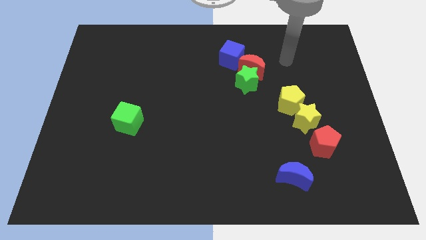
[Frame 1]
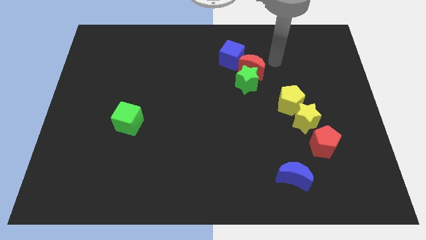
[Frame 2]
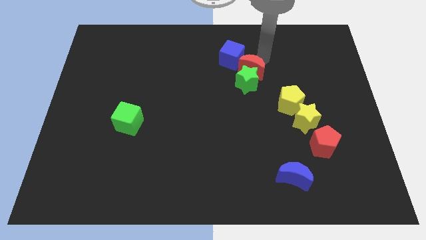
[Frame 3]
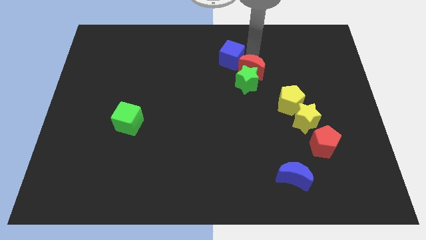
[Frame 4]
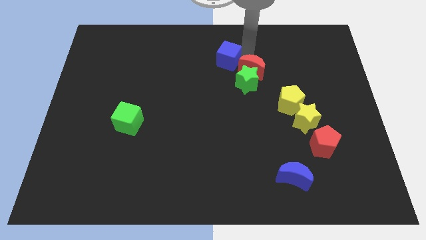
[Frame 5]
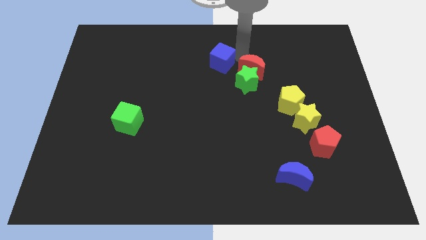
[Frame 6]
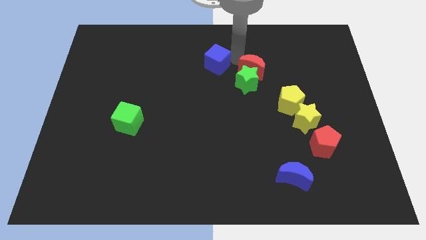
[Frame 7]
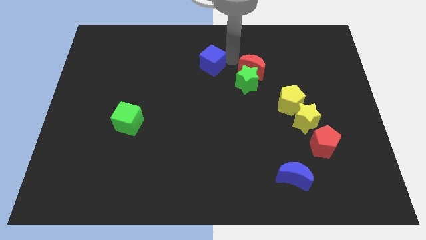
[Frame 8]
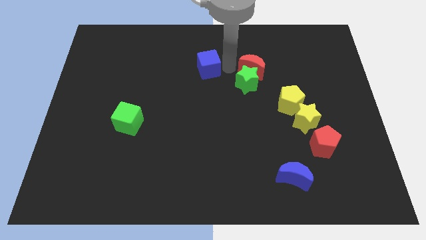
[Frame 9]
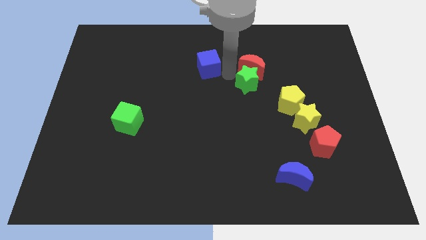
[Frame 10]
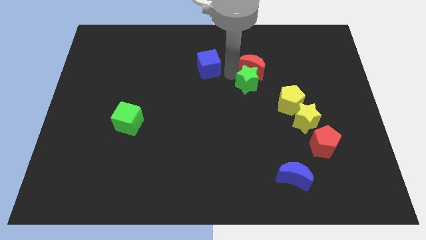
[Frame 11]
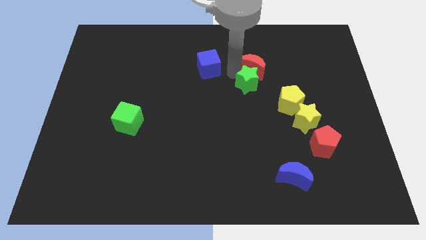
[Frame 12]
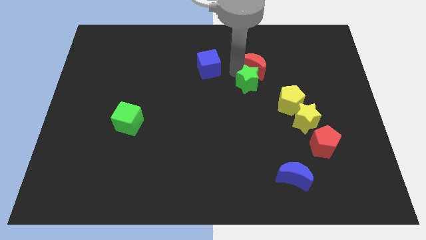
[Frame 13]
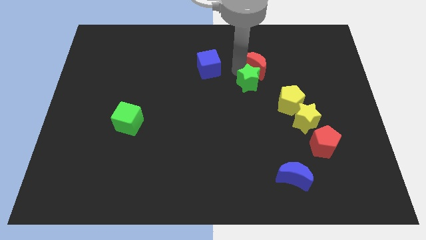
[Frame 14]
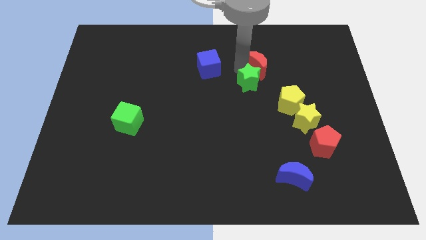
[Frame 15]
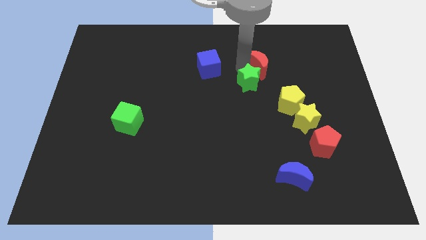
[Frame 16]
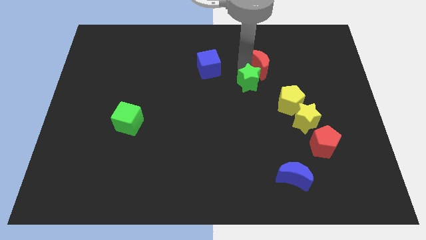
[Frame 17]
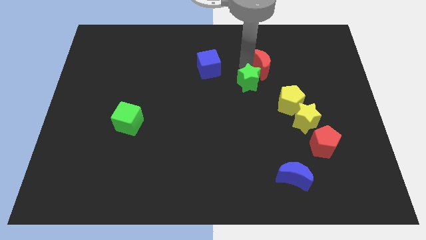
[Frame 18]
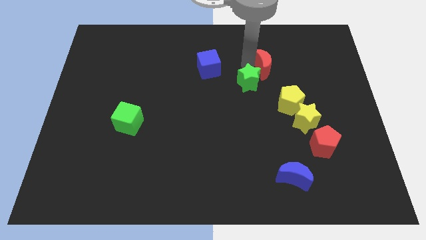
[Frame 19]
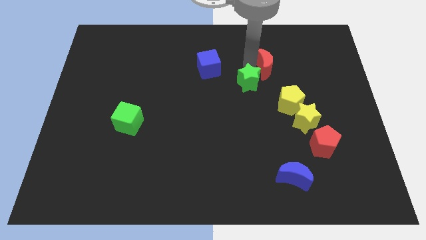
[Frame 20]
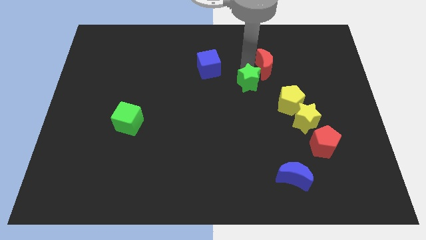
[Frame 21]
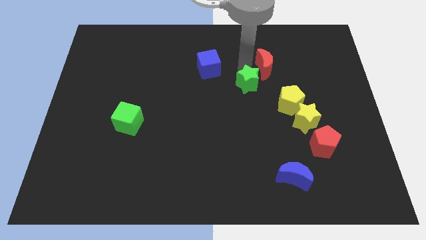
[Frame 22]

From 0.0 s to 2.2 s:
pull the red moon apart from the green star and blue cube

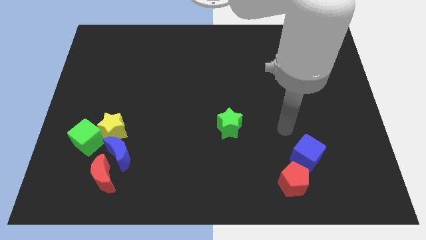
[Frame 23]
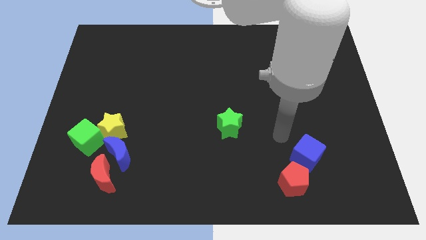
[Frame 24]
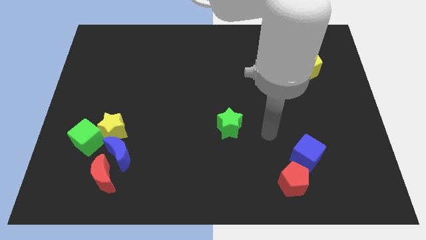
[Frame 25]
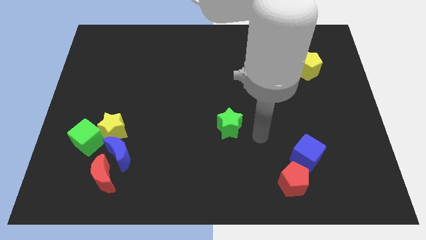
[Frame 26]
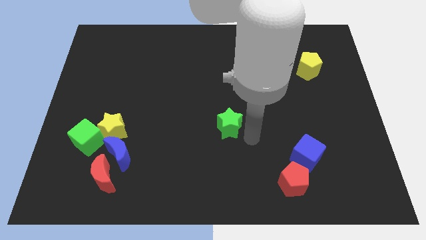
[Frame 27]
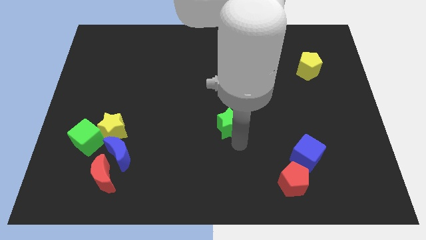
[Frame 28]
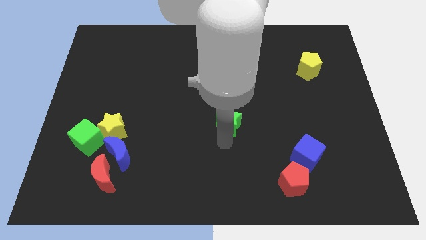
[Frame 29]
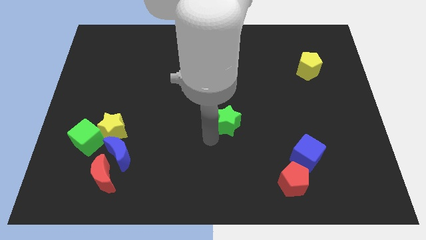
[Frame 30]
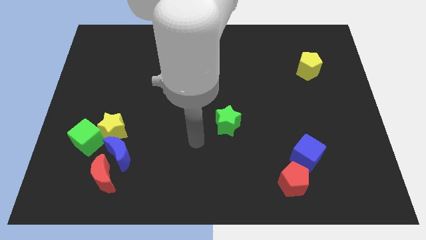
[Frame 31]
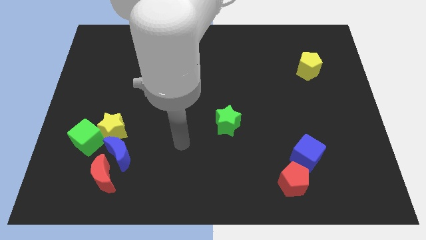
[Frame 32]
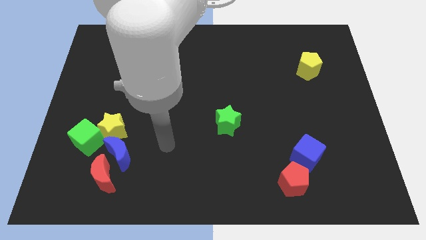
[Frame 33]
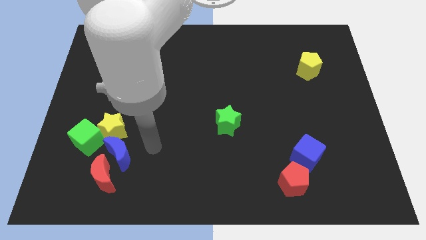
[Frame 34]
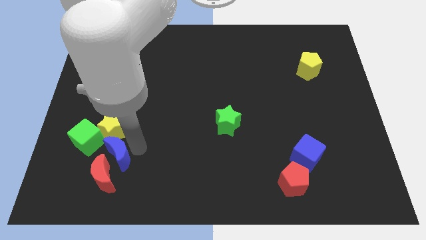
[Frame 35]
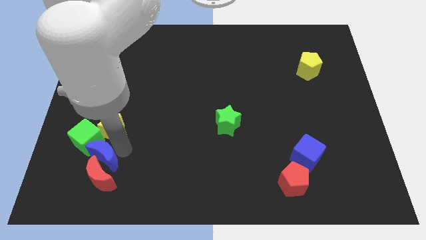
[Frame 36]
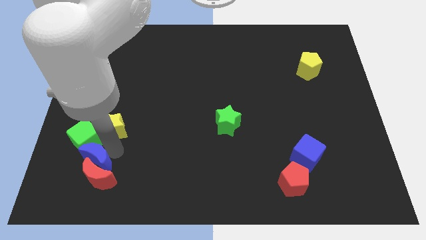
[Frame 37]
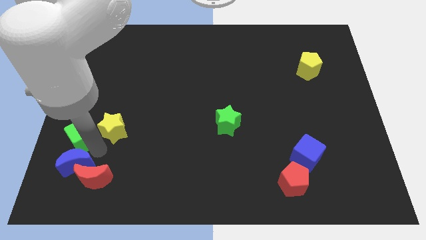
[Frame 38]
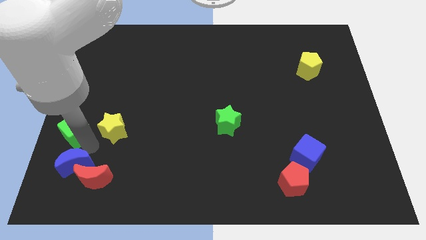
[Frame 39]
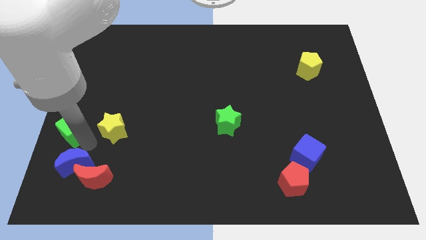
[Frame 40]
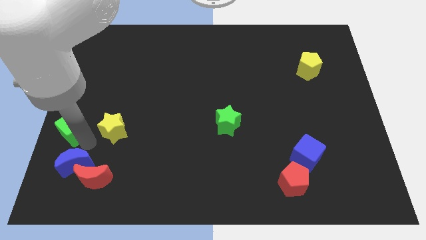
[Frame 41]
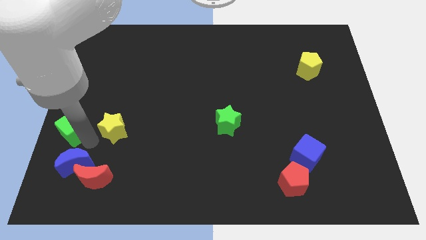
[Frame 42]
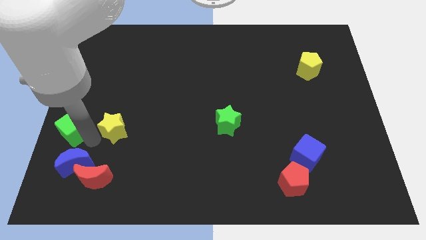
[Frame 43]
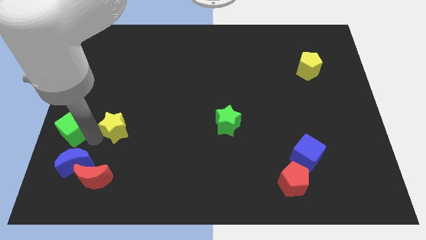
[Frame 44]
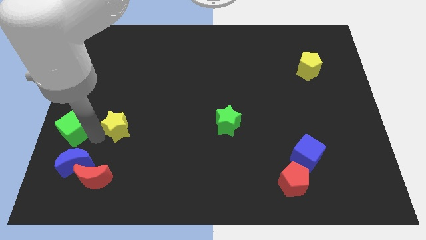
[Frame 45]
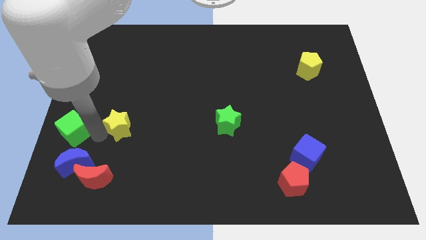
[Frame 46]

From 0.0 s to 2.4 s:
pull the yellow star apart from the green cube and blue moon

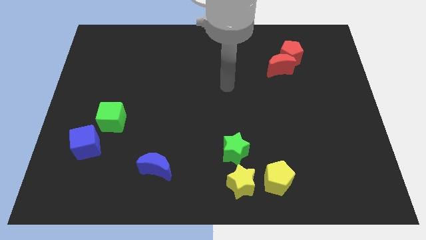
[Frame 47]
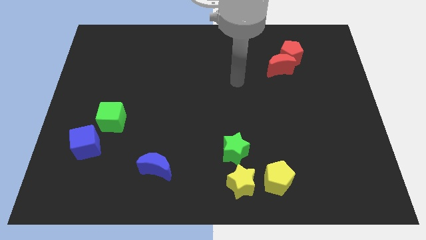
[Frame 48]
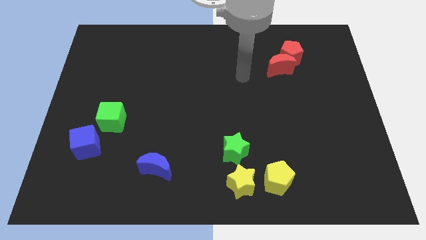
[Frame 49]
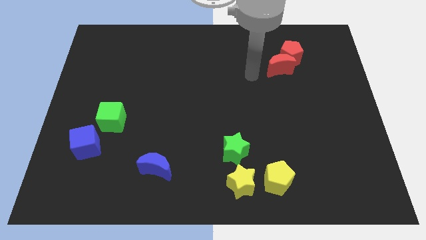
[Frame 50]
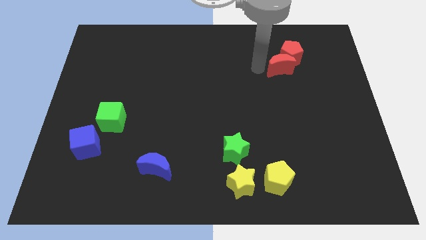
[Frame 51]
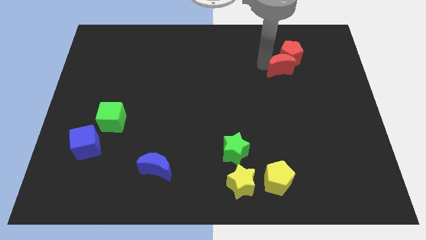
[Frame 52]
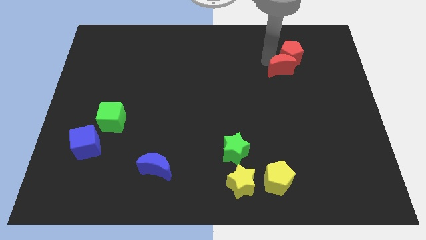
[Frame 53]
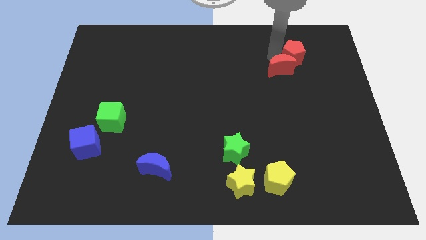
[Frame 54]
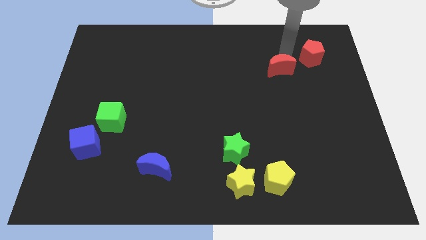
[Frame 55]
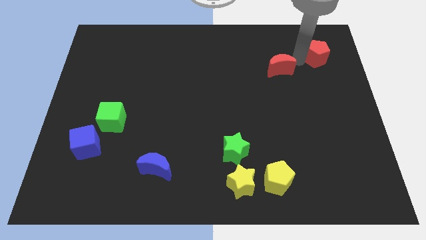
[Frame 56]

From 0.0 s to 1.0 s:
pull the red moon apart from the red pentagon

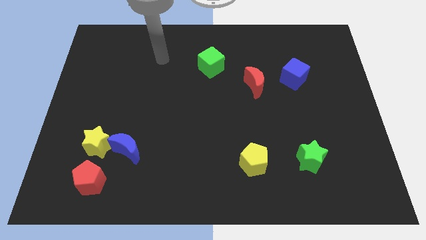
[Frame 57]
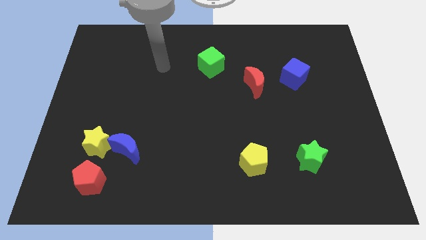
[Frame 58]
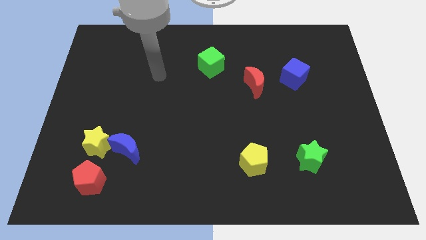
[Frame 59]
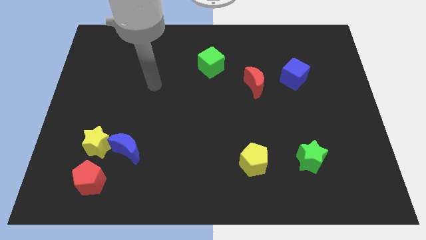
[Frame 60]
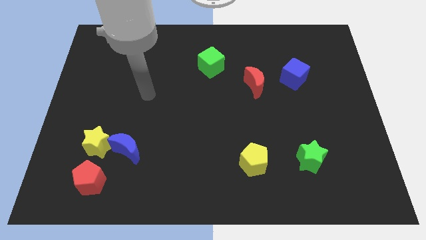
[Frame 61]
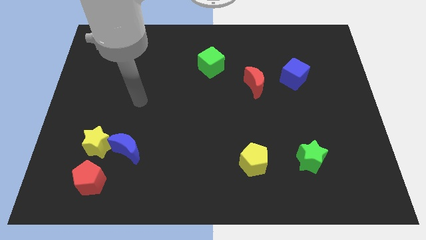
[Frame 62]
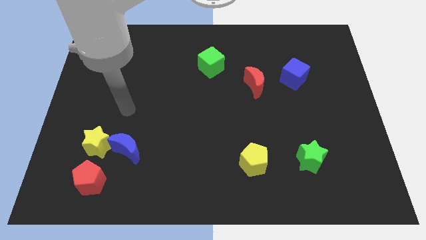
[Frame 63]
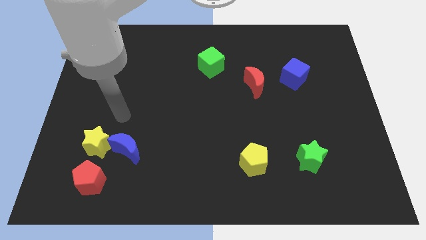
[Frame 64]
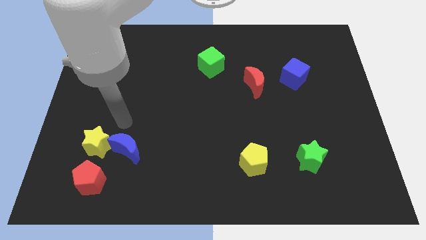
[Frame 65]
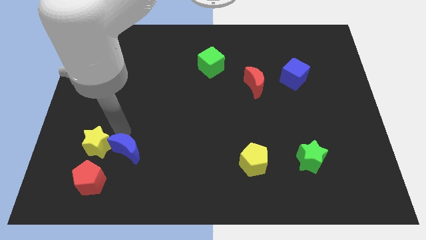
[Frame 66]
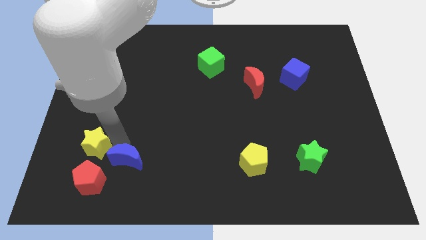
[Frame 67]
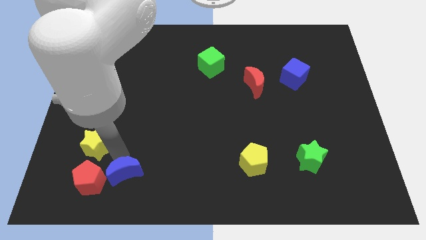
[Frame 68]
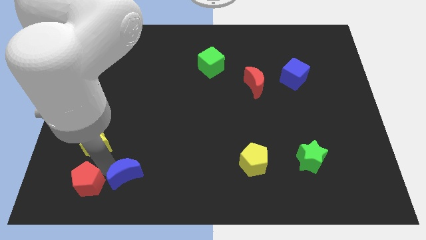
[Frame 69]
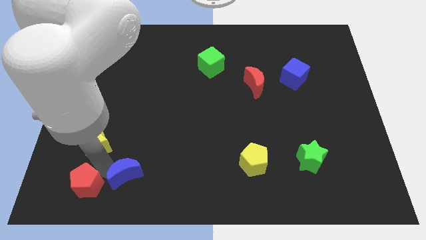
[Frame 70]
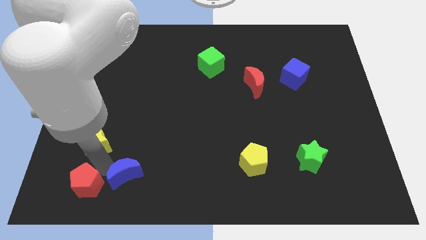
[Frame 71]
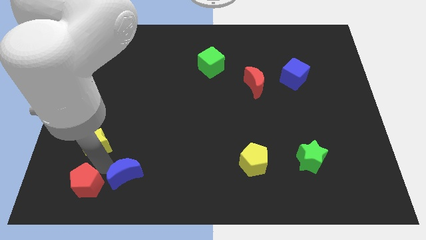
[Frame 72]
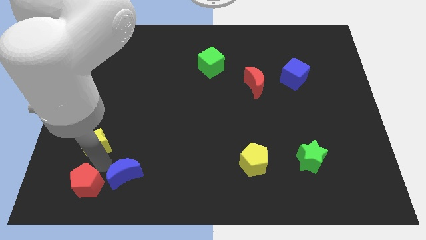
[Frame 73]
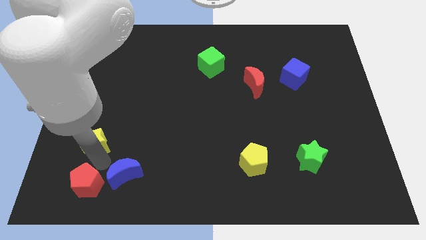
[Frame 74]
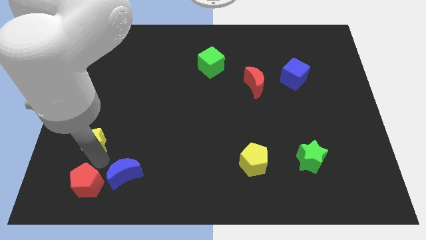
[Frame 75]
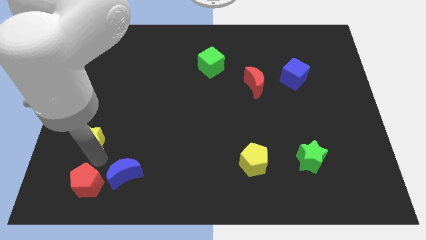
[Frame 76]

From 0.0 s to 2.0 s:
separate the yellow star from the blue moon and red pentagon

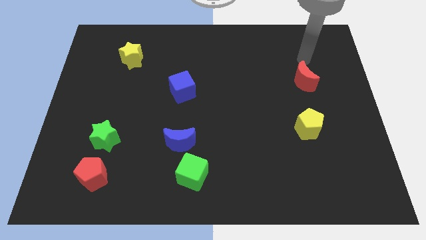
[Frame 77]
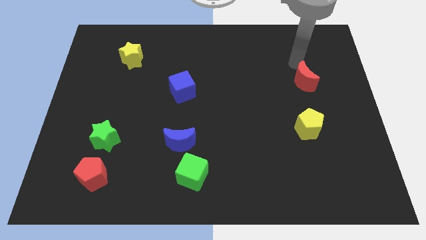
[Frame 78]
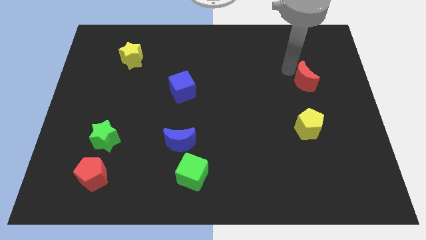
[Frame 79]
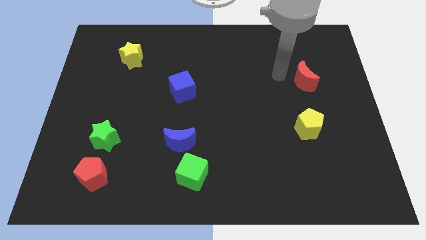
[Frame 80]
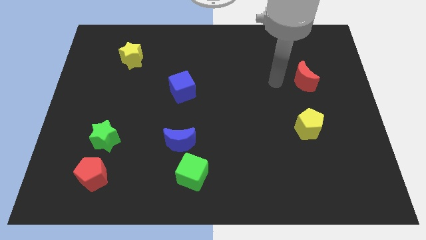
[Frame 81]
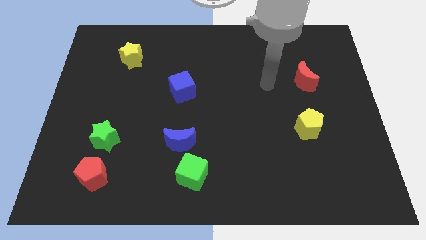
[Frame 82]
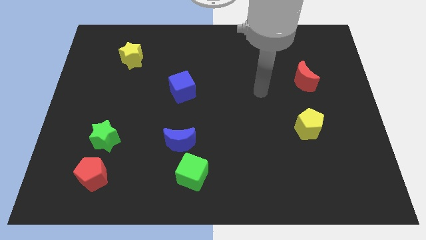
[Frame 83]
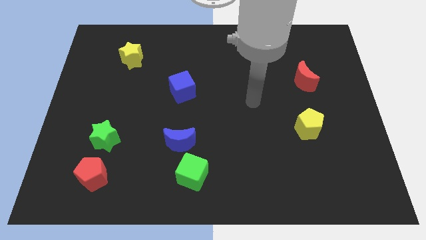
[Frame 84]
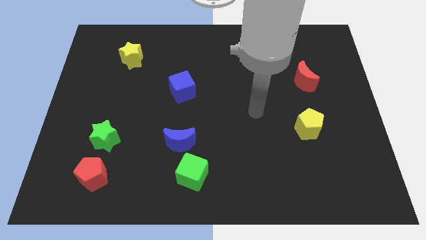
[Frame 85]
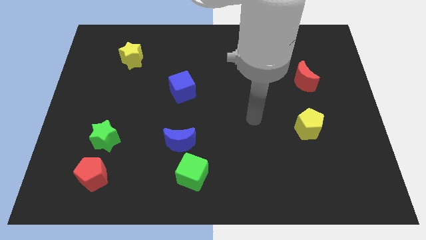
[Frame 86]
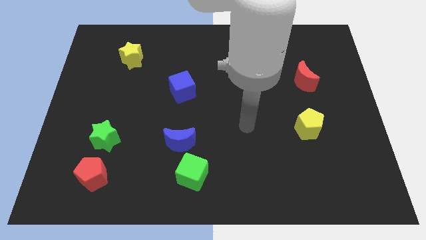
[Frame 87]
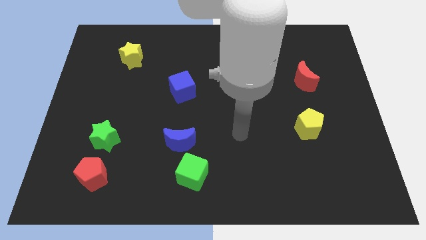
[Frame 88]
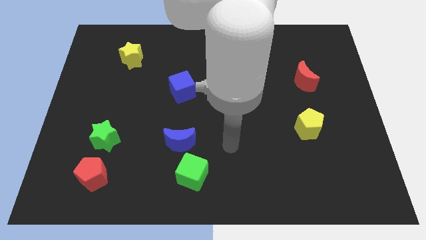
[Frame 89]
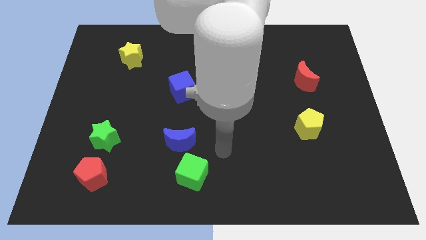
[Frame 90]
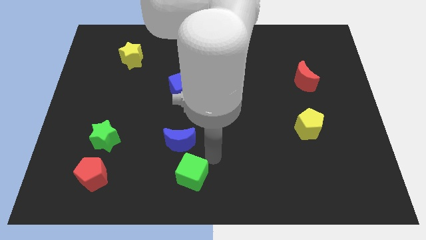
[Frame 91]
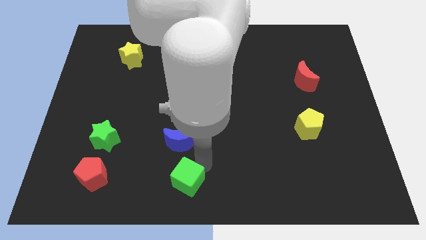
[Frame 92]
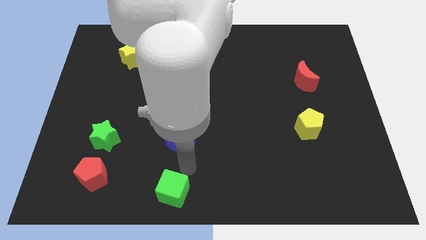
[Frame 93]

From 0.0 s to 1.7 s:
move the blue moon away from the green cube
